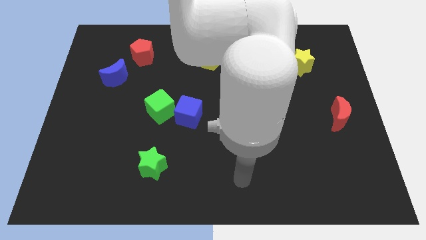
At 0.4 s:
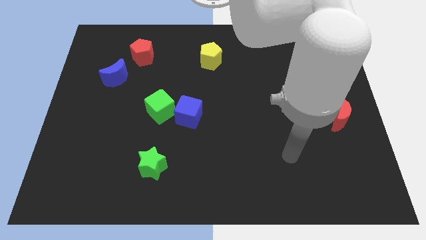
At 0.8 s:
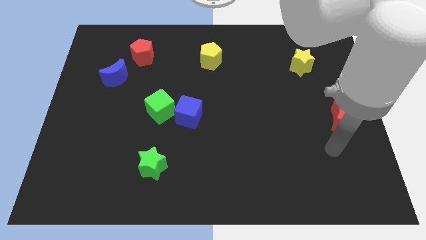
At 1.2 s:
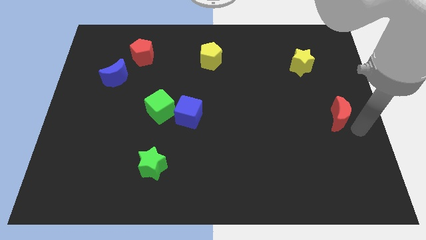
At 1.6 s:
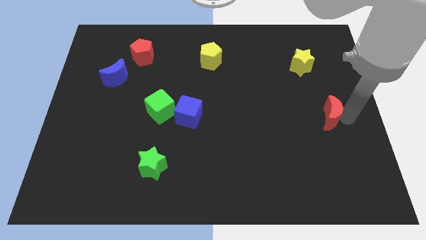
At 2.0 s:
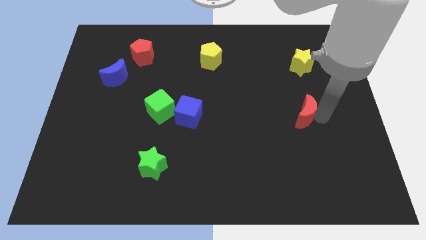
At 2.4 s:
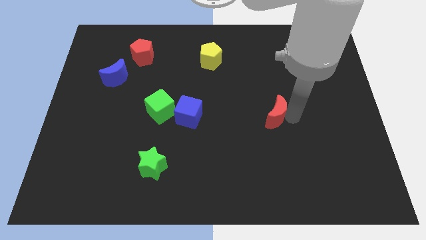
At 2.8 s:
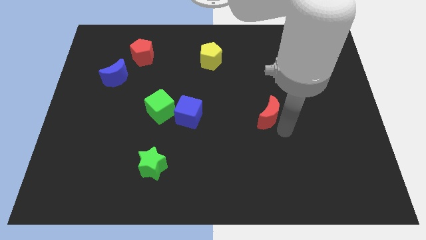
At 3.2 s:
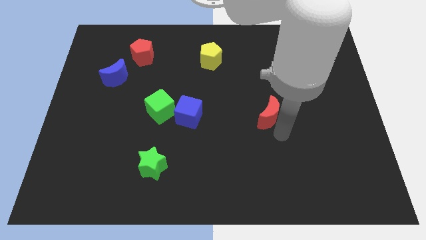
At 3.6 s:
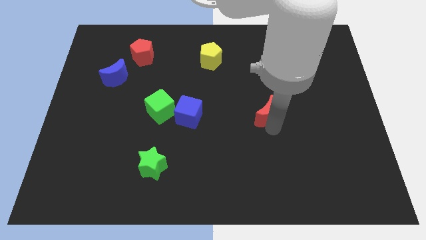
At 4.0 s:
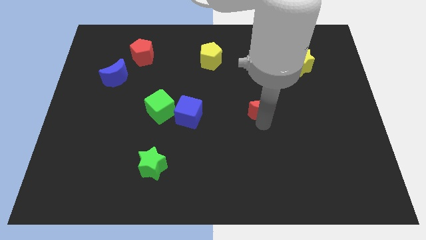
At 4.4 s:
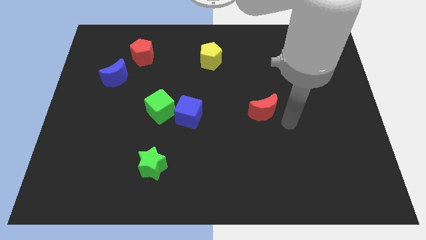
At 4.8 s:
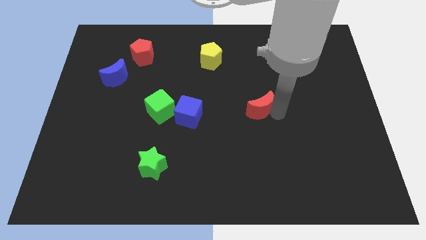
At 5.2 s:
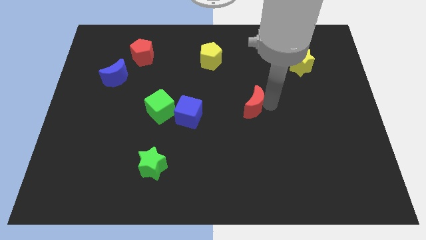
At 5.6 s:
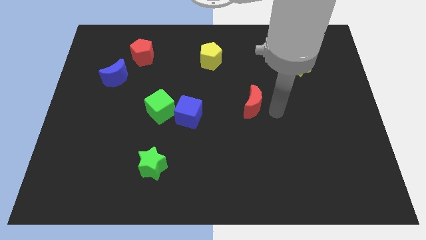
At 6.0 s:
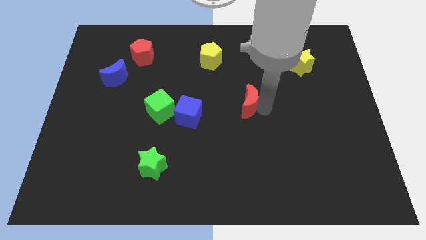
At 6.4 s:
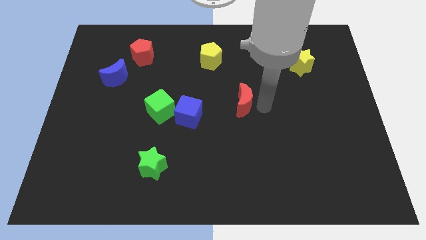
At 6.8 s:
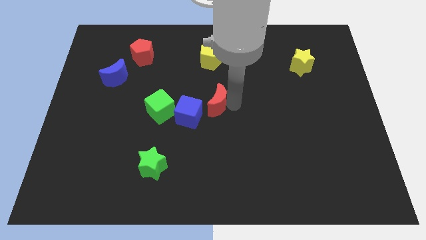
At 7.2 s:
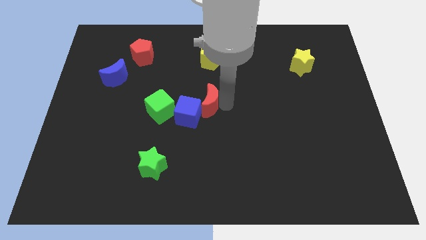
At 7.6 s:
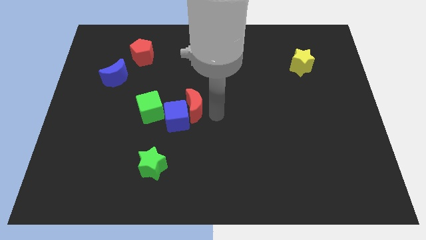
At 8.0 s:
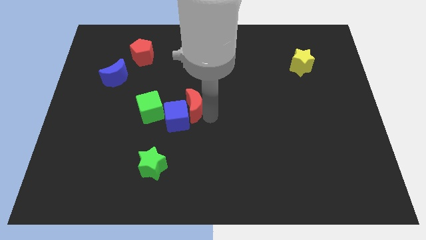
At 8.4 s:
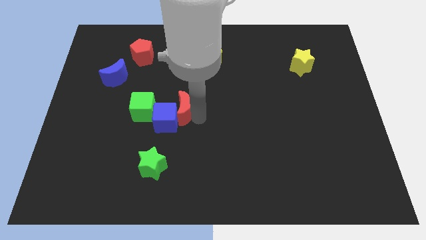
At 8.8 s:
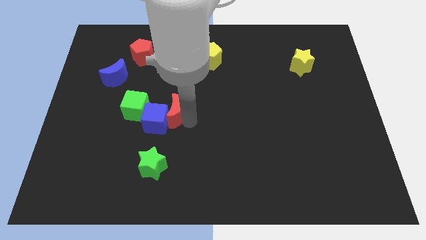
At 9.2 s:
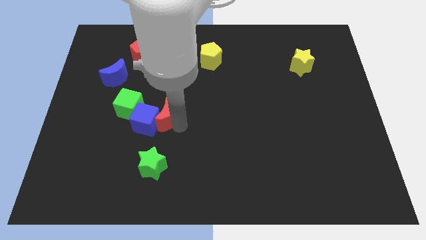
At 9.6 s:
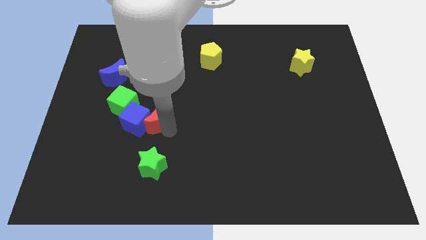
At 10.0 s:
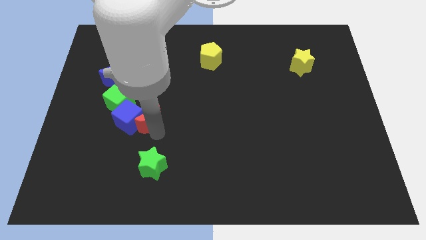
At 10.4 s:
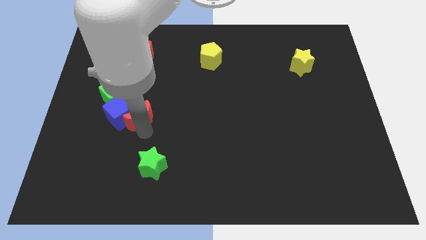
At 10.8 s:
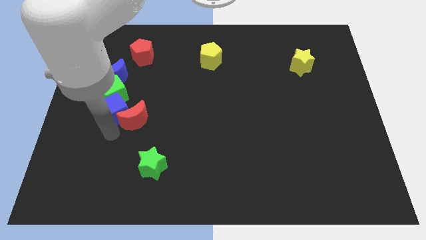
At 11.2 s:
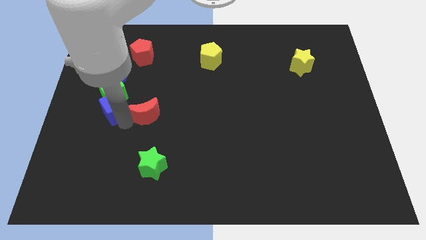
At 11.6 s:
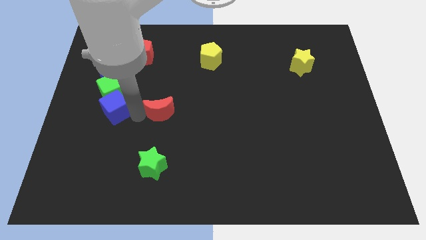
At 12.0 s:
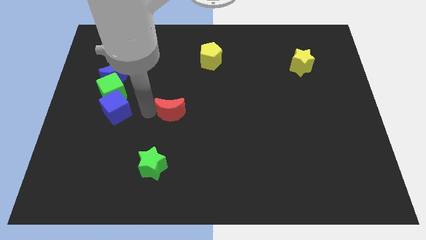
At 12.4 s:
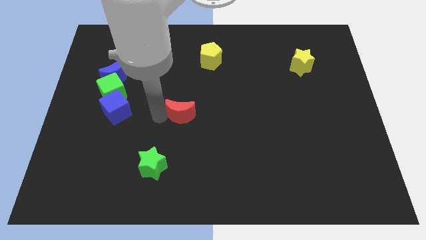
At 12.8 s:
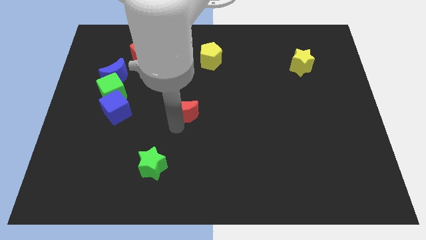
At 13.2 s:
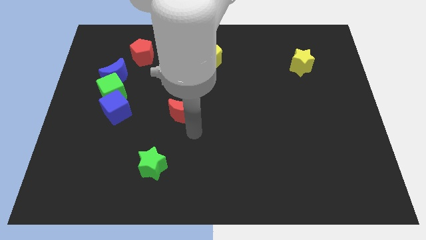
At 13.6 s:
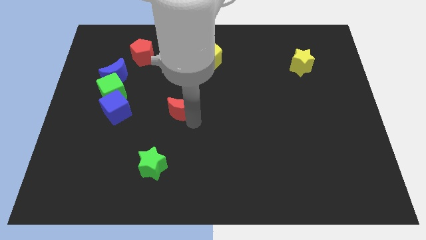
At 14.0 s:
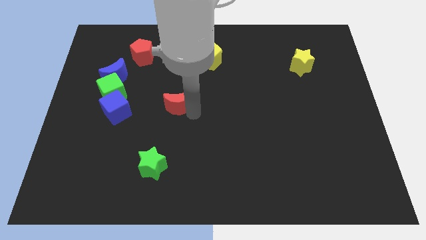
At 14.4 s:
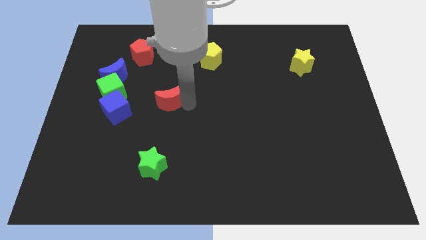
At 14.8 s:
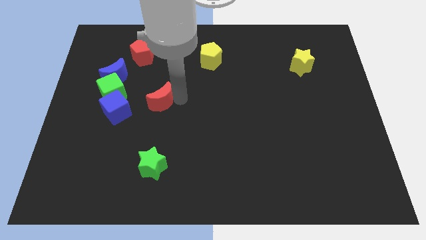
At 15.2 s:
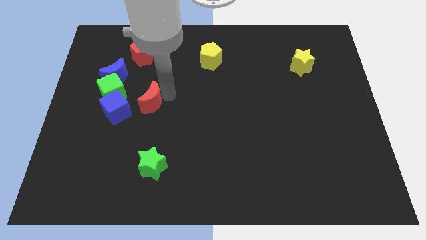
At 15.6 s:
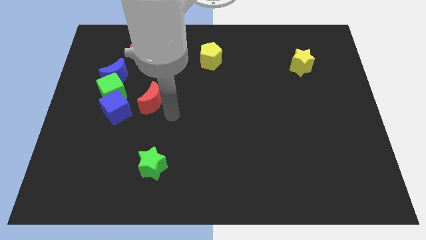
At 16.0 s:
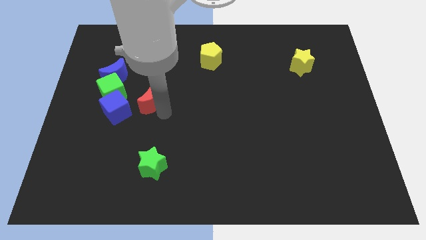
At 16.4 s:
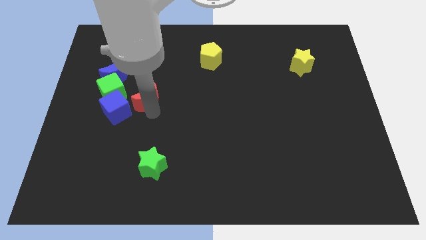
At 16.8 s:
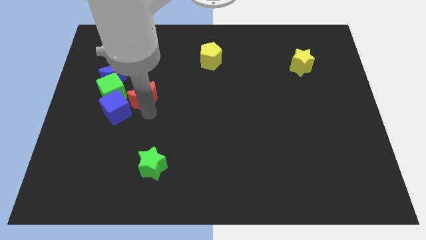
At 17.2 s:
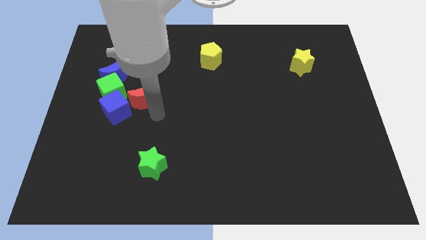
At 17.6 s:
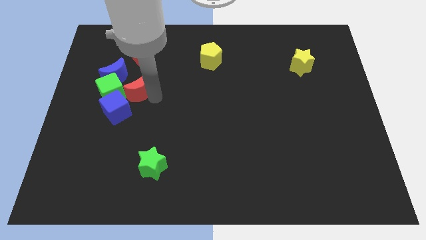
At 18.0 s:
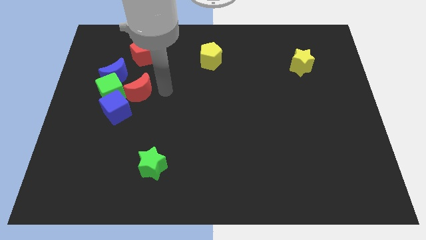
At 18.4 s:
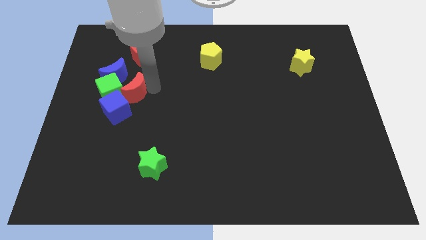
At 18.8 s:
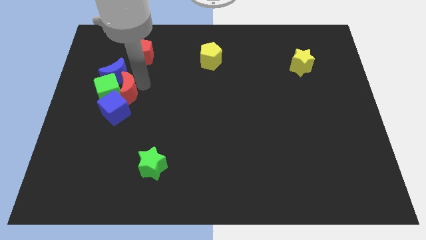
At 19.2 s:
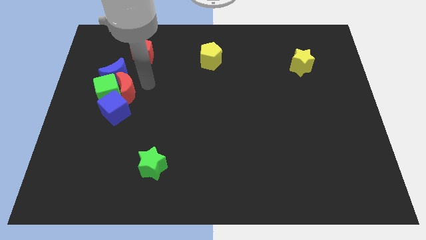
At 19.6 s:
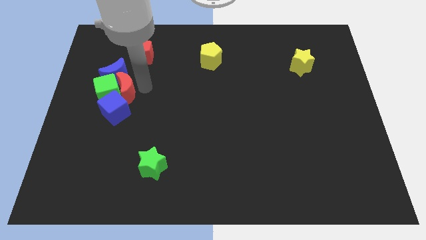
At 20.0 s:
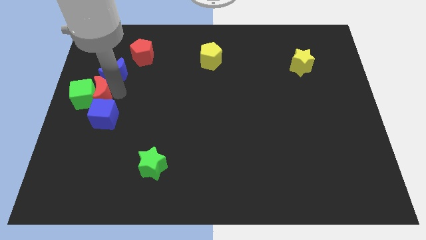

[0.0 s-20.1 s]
slide the red moon to the center left

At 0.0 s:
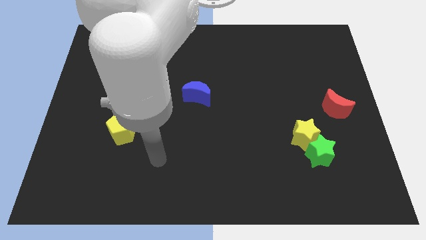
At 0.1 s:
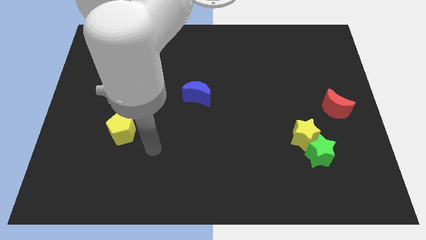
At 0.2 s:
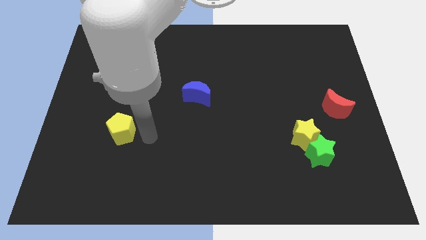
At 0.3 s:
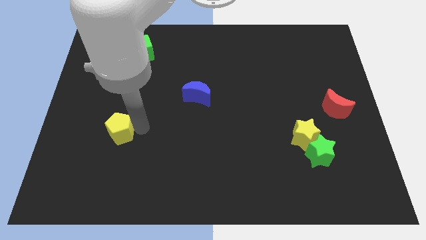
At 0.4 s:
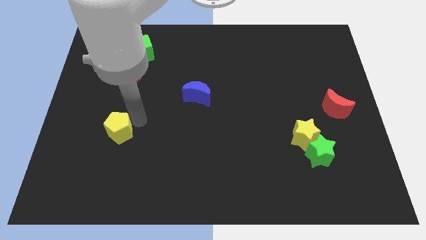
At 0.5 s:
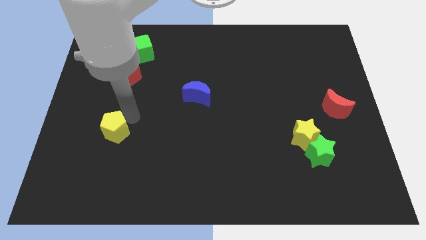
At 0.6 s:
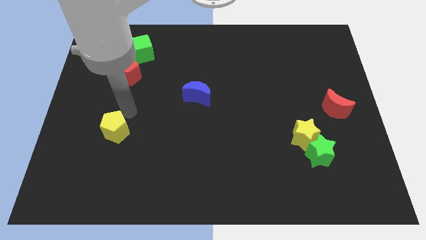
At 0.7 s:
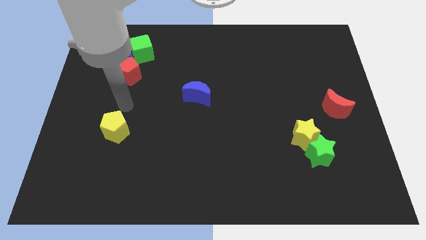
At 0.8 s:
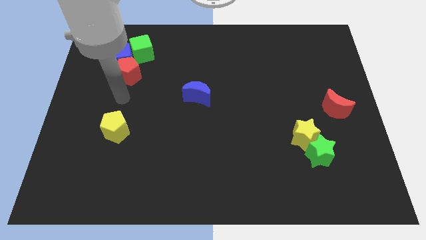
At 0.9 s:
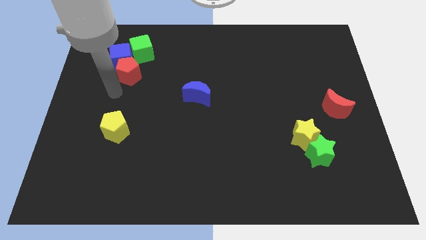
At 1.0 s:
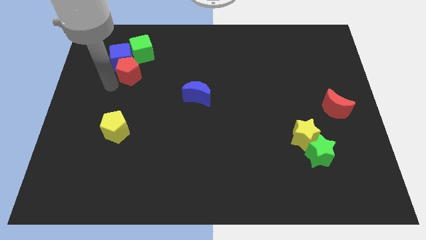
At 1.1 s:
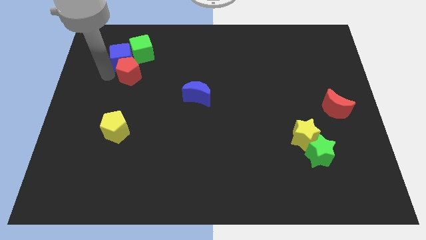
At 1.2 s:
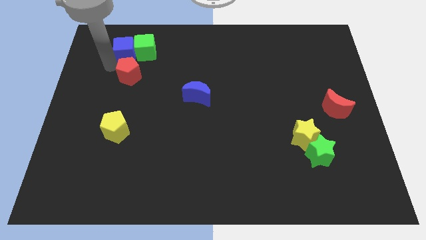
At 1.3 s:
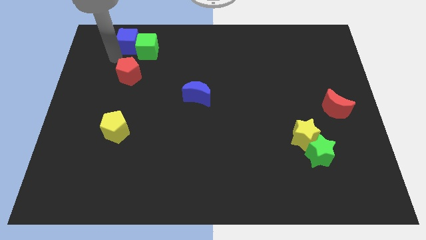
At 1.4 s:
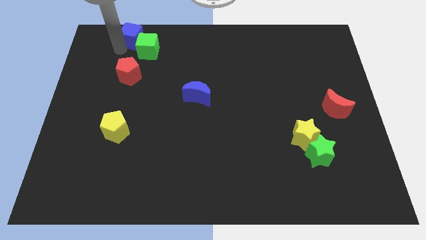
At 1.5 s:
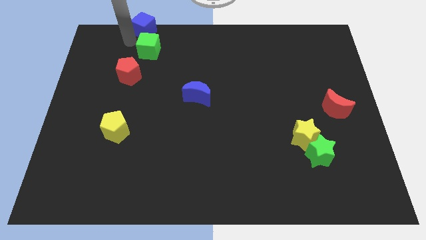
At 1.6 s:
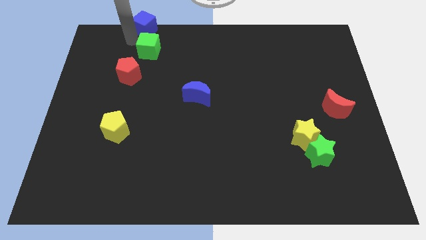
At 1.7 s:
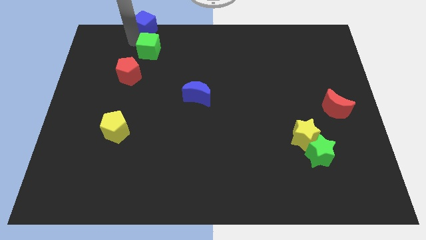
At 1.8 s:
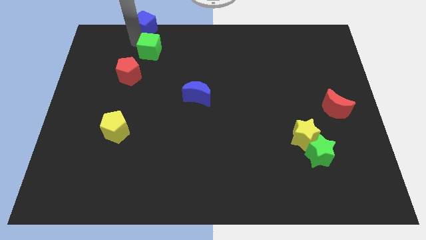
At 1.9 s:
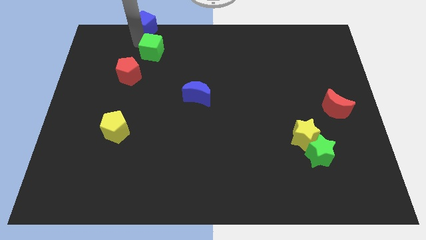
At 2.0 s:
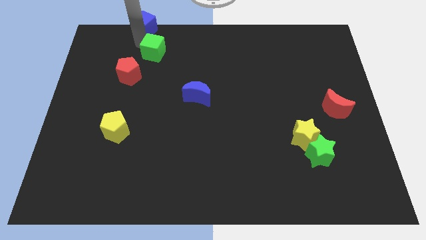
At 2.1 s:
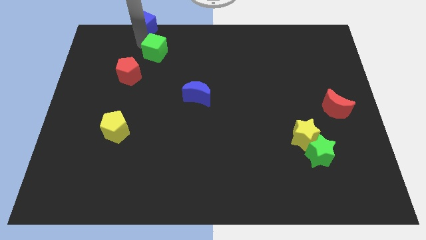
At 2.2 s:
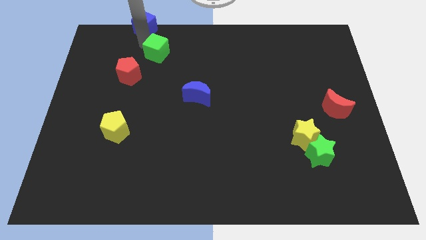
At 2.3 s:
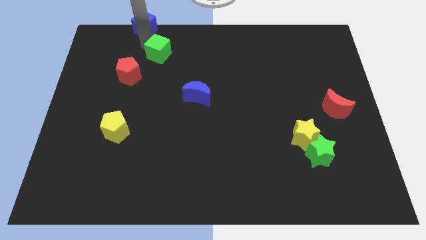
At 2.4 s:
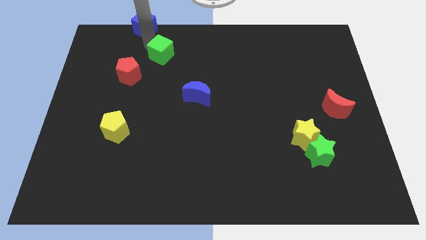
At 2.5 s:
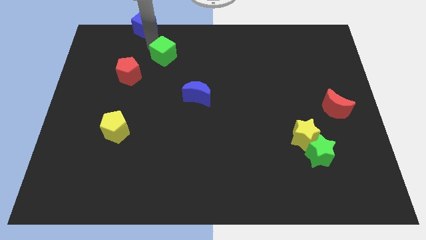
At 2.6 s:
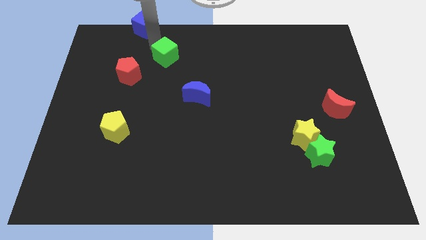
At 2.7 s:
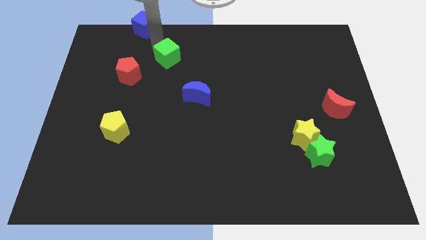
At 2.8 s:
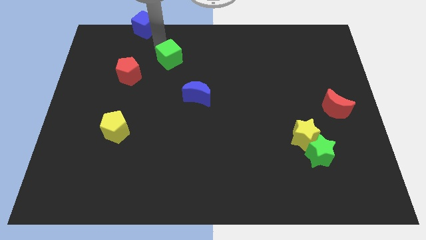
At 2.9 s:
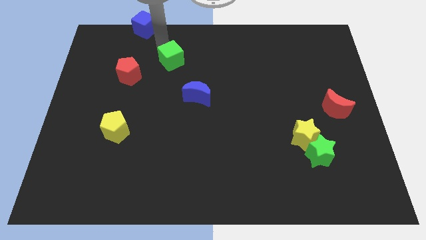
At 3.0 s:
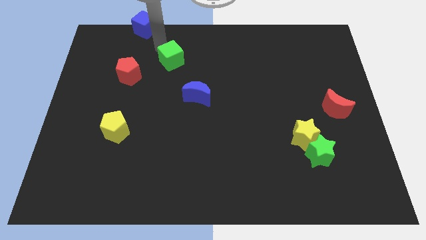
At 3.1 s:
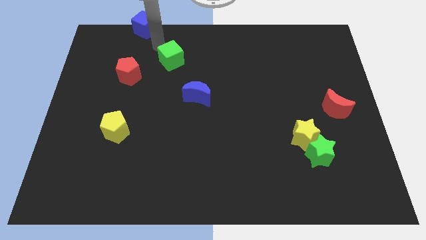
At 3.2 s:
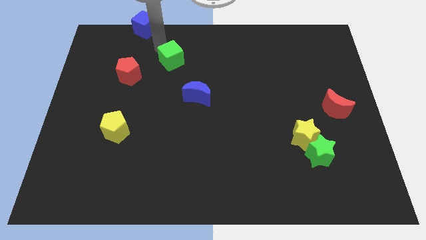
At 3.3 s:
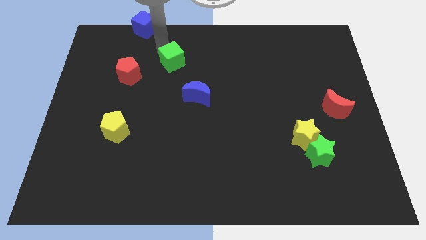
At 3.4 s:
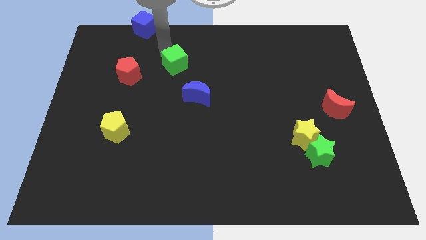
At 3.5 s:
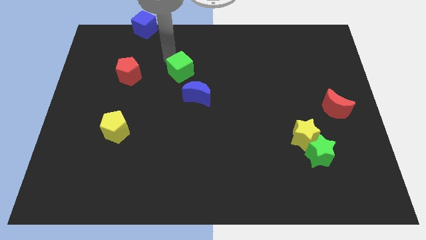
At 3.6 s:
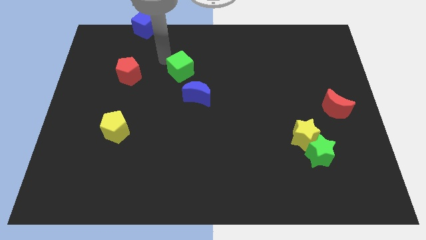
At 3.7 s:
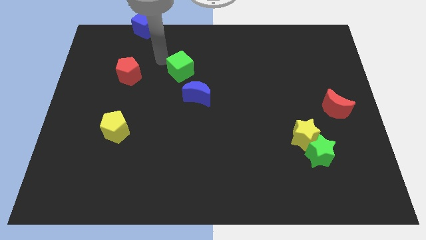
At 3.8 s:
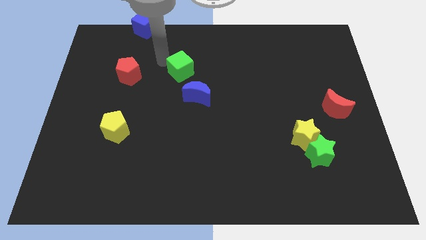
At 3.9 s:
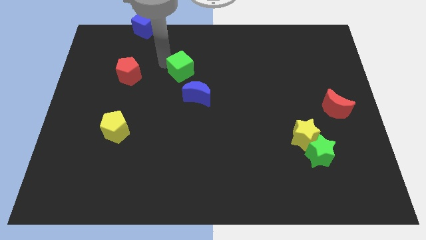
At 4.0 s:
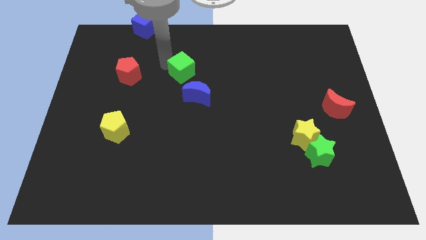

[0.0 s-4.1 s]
slide the green cube to the center
